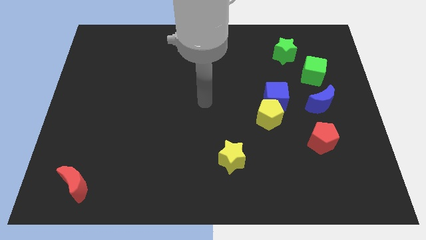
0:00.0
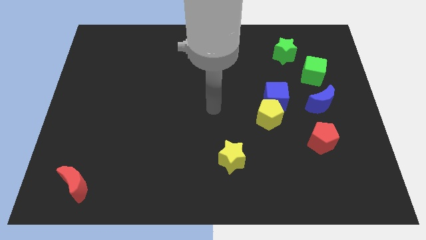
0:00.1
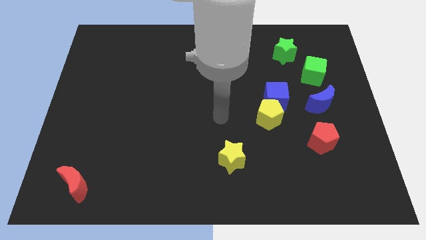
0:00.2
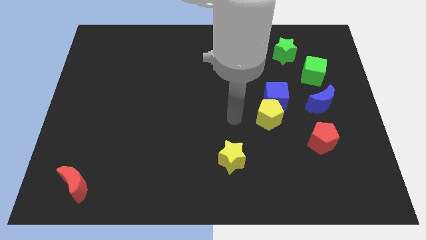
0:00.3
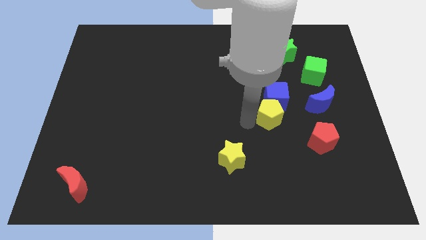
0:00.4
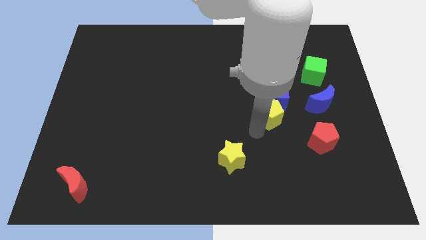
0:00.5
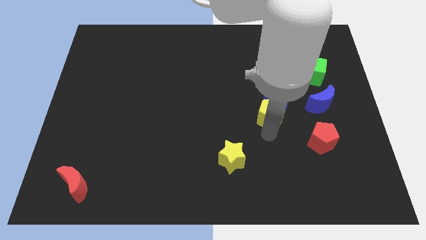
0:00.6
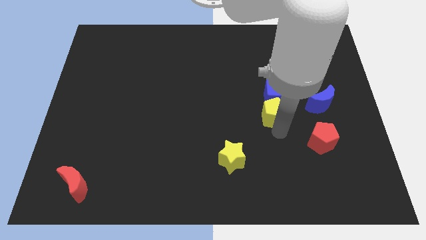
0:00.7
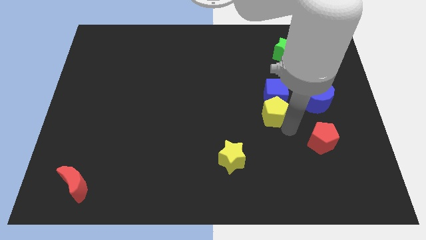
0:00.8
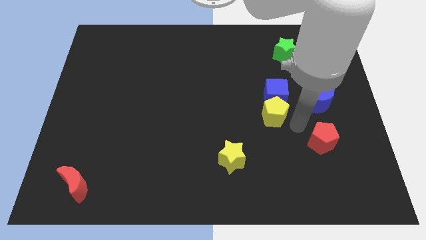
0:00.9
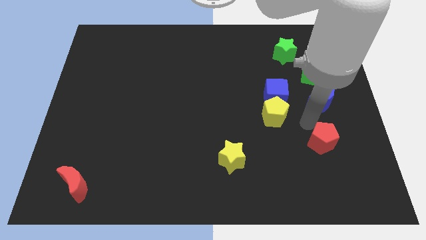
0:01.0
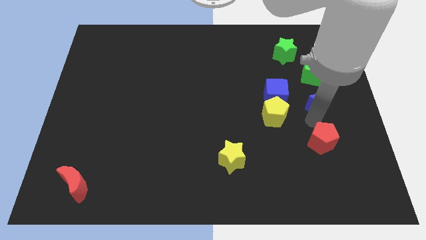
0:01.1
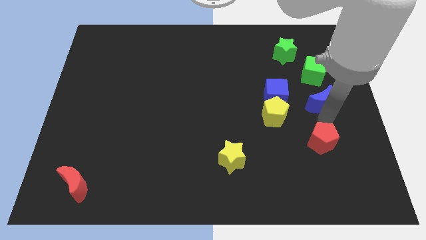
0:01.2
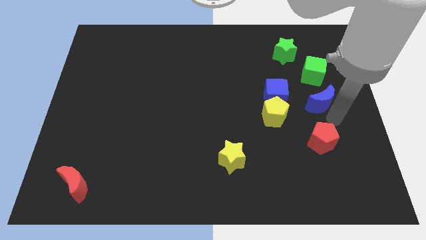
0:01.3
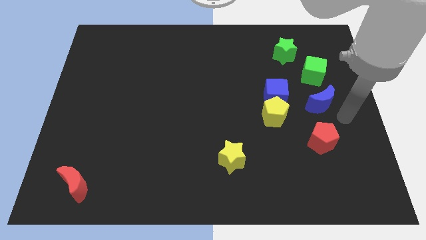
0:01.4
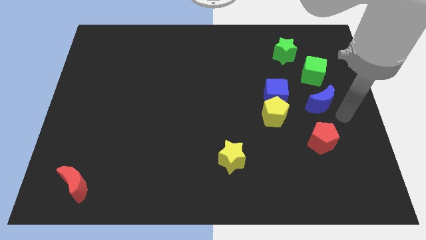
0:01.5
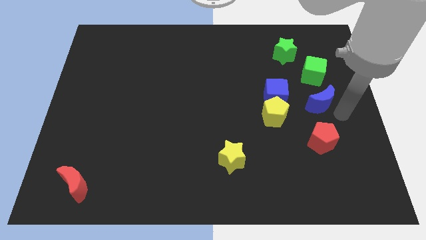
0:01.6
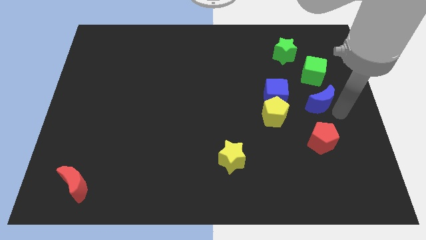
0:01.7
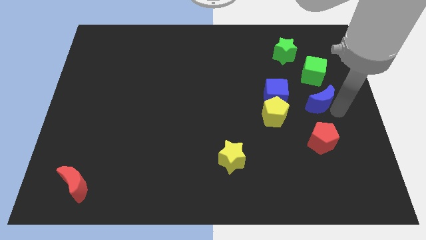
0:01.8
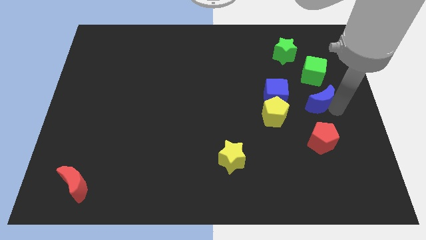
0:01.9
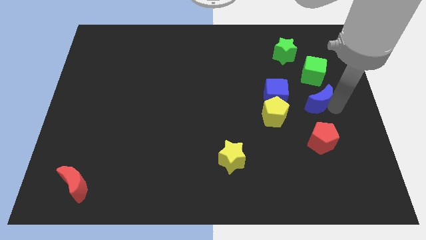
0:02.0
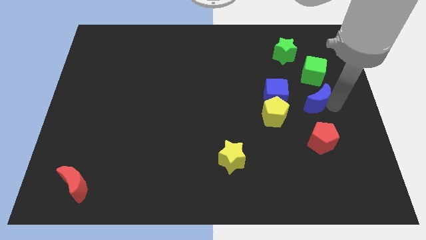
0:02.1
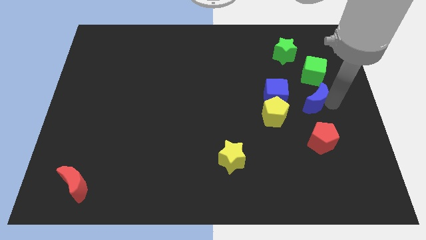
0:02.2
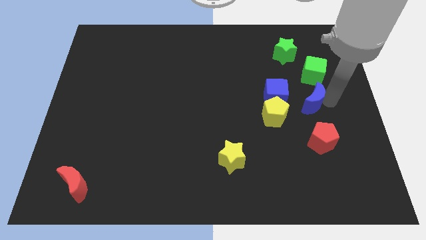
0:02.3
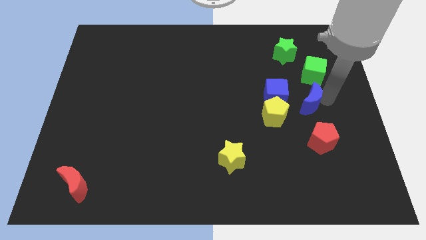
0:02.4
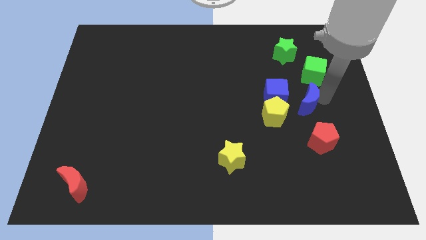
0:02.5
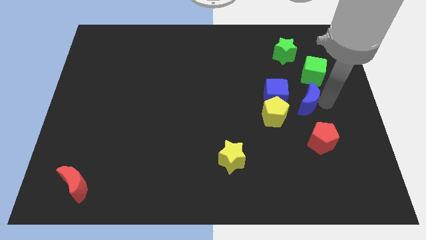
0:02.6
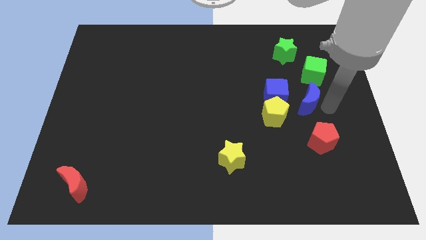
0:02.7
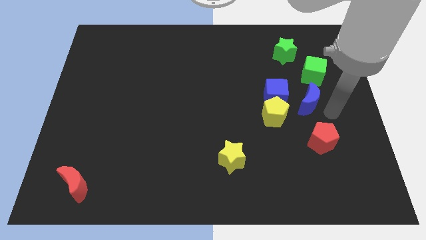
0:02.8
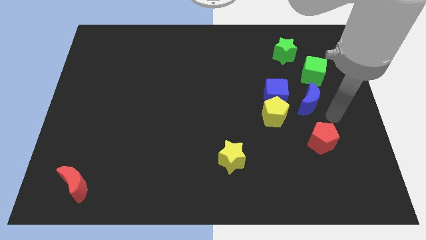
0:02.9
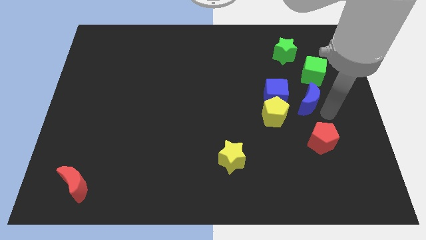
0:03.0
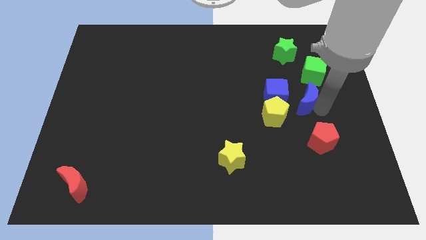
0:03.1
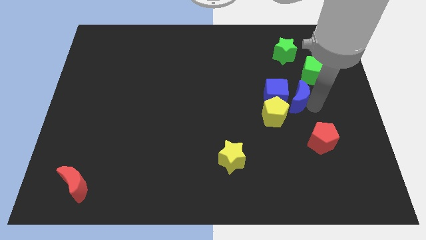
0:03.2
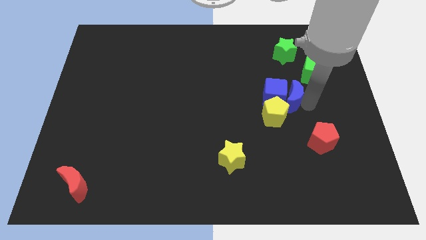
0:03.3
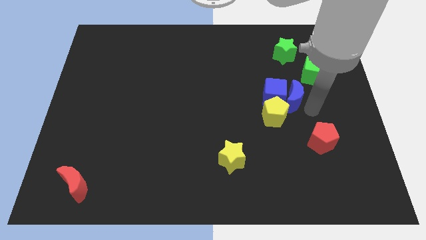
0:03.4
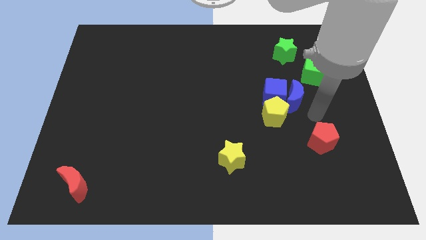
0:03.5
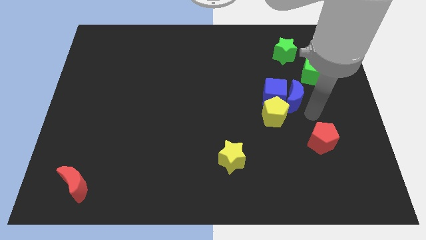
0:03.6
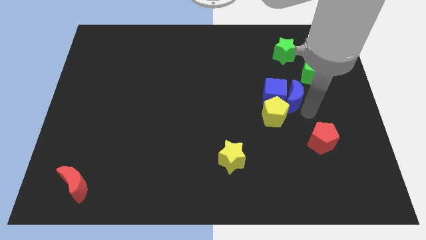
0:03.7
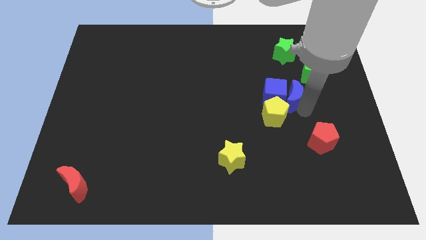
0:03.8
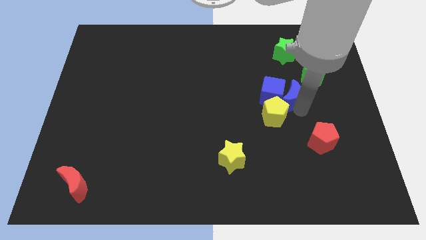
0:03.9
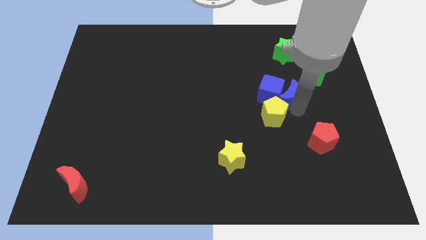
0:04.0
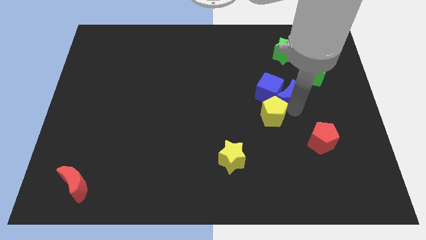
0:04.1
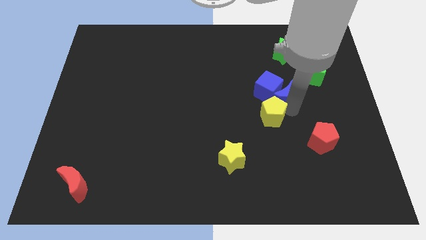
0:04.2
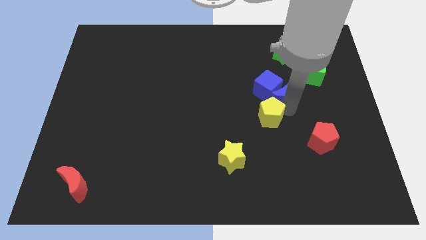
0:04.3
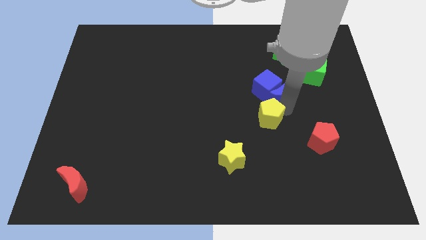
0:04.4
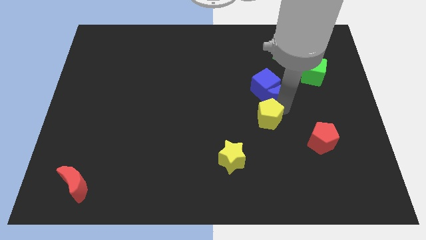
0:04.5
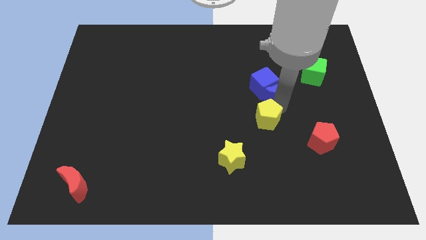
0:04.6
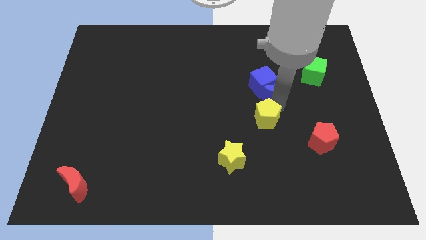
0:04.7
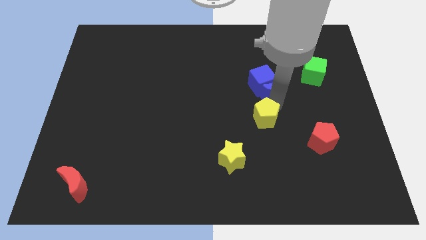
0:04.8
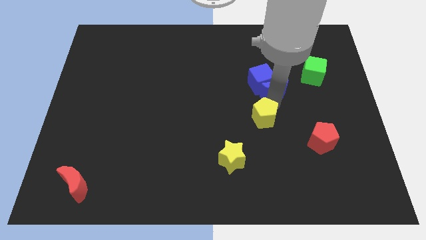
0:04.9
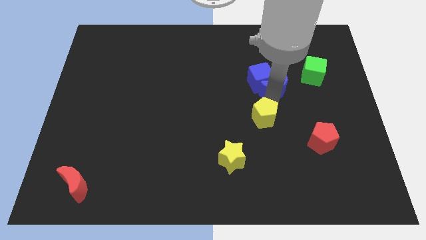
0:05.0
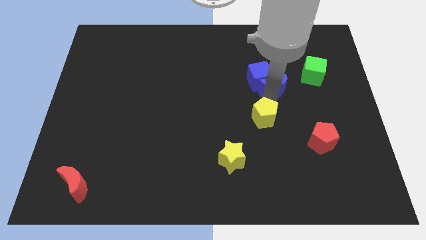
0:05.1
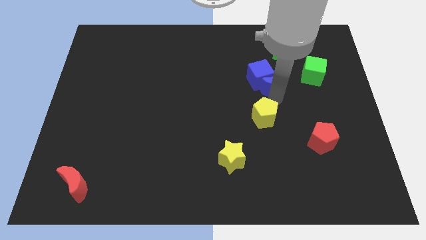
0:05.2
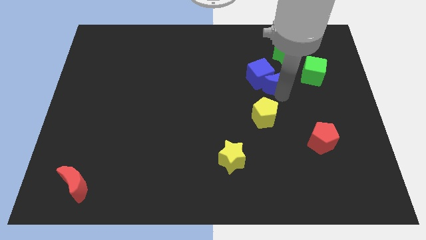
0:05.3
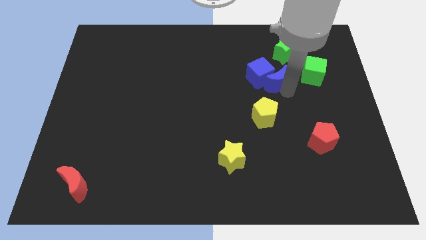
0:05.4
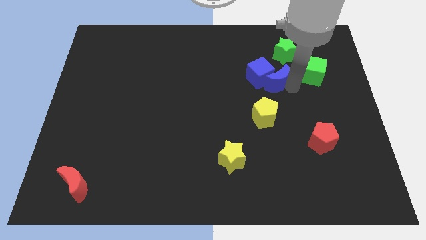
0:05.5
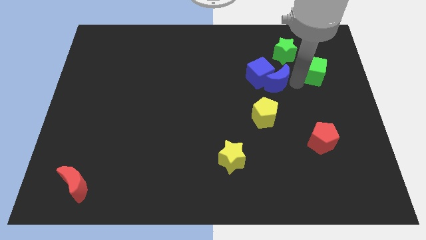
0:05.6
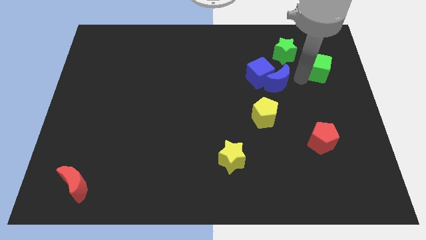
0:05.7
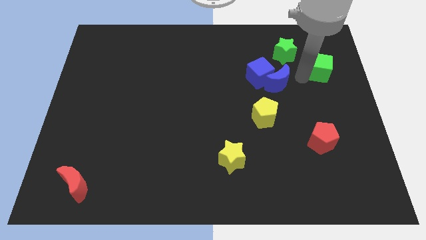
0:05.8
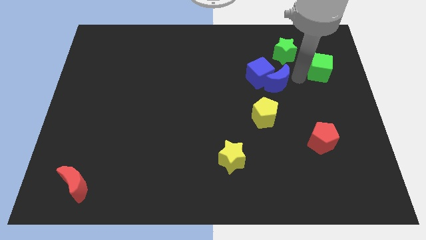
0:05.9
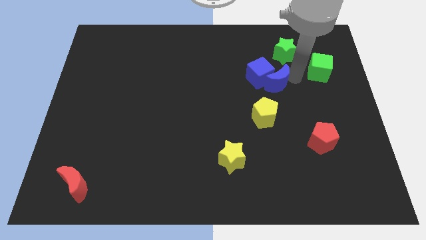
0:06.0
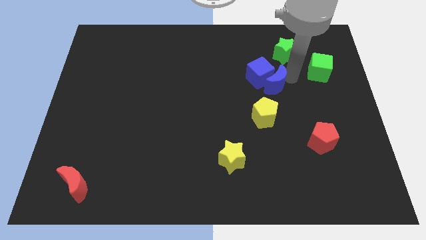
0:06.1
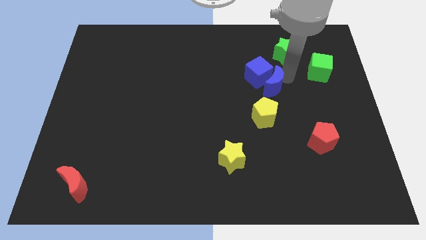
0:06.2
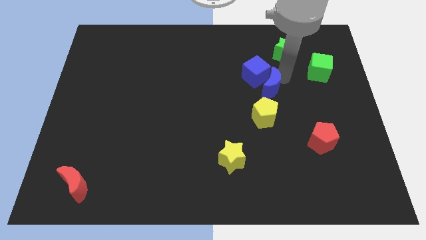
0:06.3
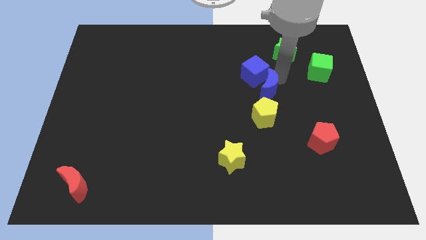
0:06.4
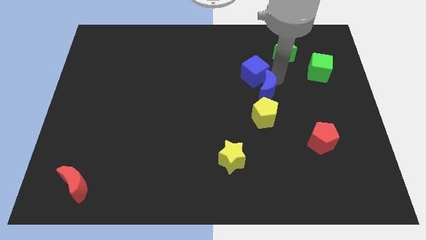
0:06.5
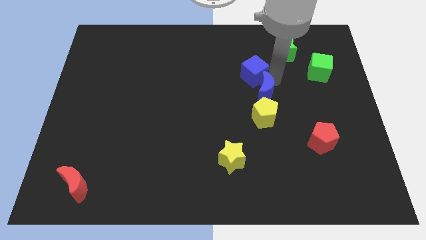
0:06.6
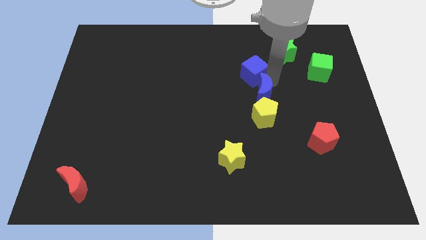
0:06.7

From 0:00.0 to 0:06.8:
move the blue moon to the middle

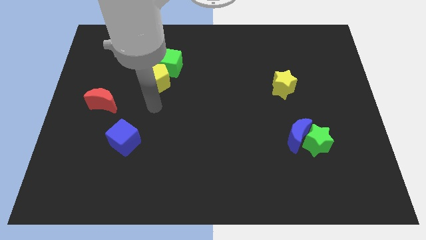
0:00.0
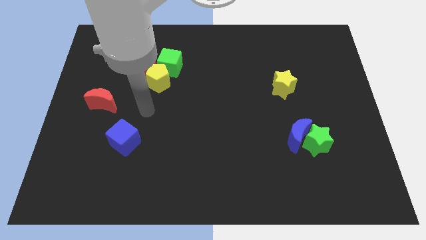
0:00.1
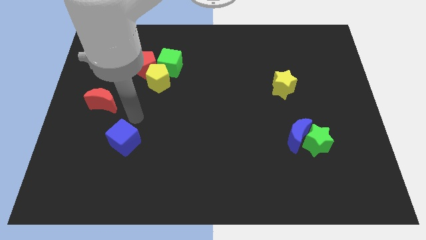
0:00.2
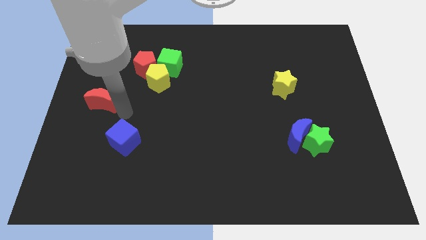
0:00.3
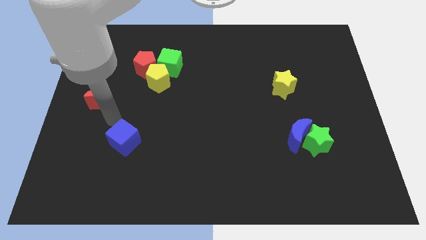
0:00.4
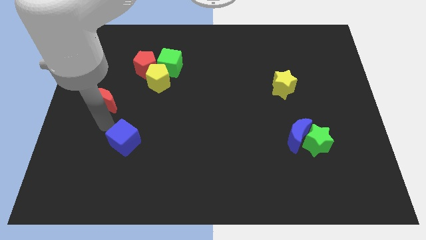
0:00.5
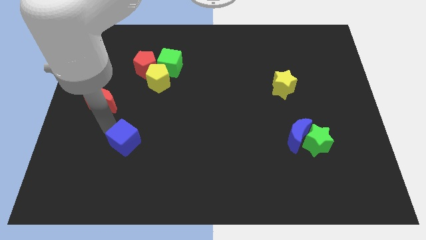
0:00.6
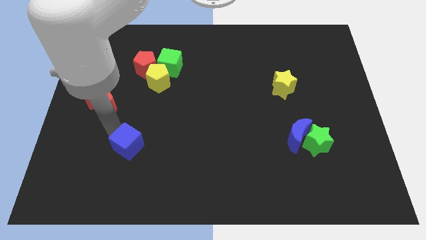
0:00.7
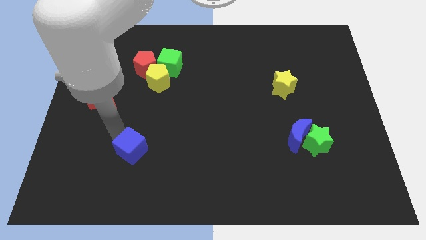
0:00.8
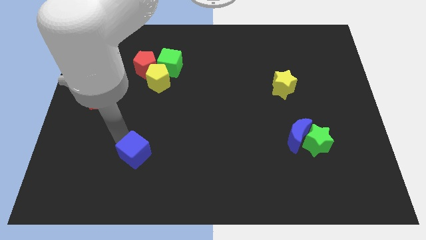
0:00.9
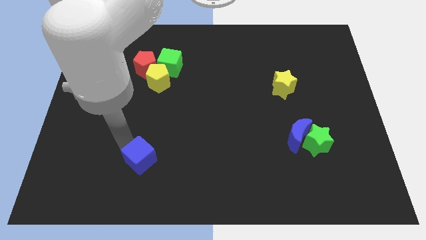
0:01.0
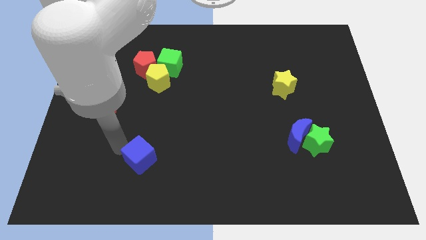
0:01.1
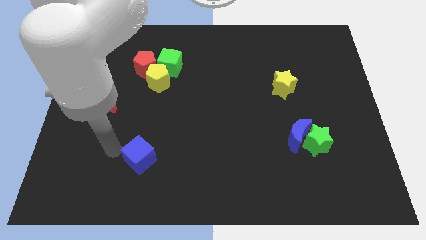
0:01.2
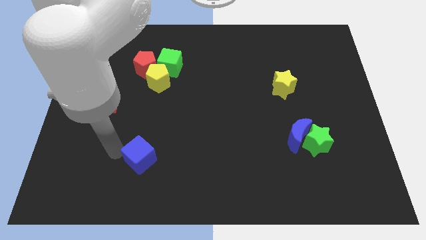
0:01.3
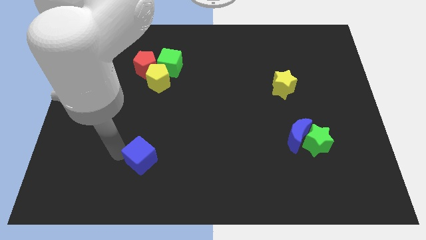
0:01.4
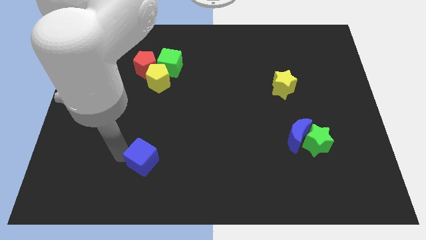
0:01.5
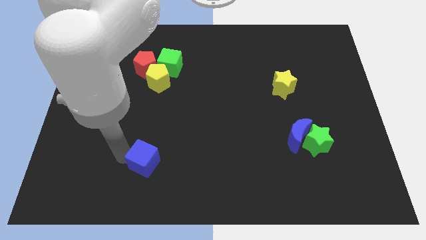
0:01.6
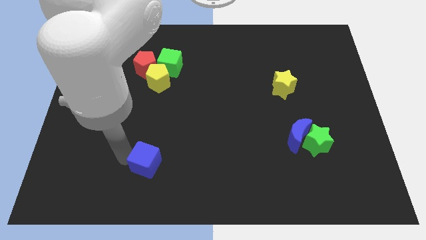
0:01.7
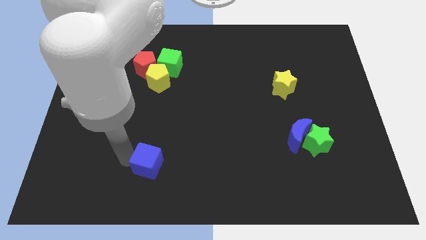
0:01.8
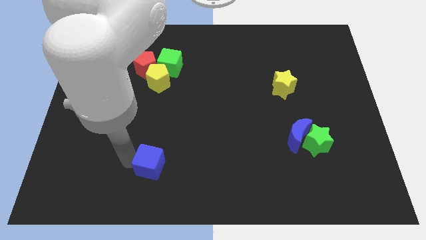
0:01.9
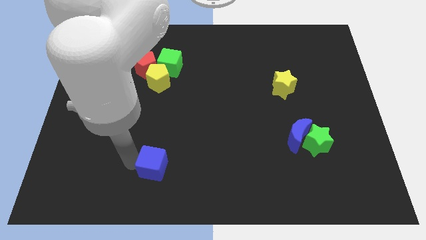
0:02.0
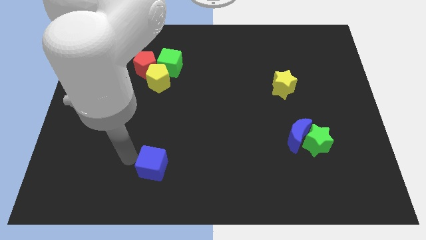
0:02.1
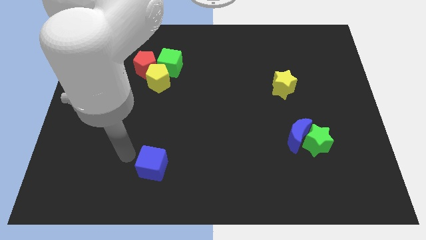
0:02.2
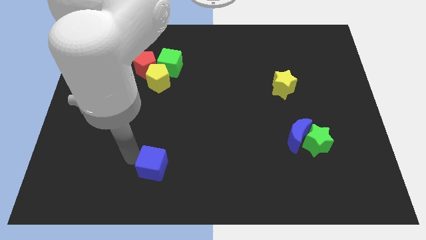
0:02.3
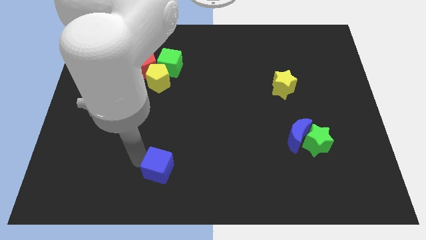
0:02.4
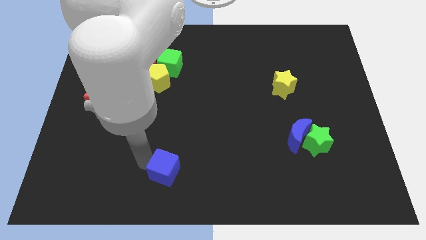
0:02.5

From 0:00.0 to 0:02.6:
slide the blue cube to the bottom
